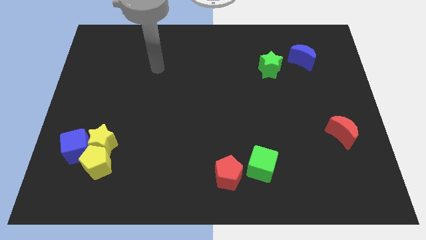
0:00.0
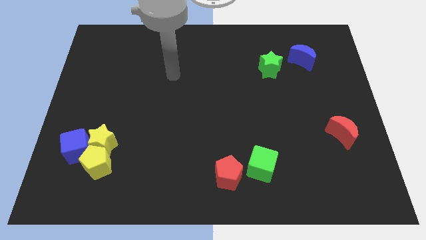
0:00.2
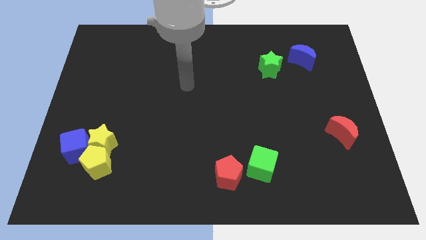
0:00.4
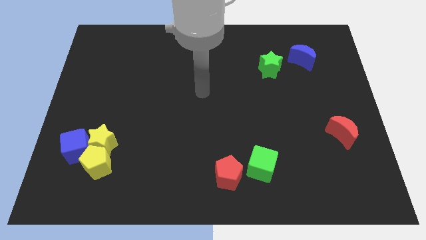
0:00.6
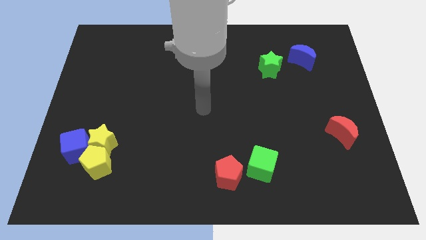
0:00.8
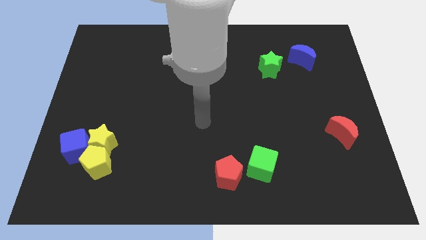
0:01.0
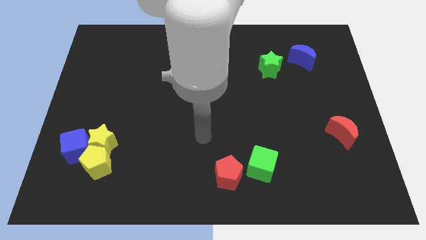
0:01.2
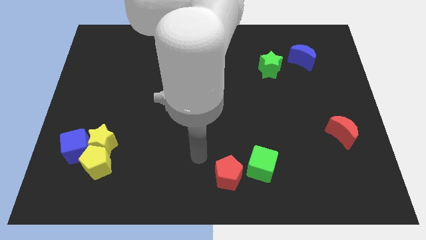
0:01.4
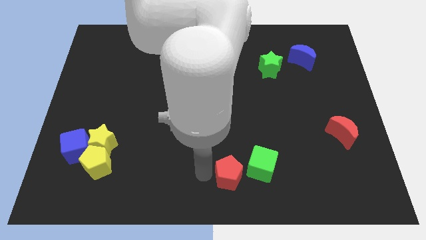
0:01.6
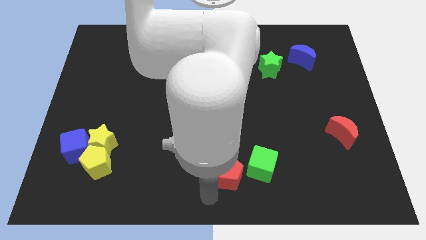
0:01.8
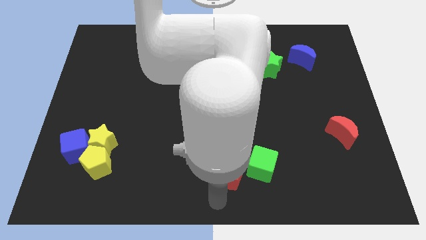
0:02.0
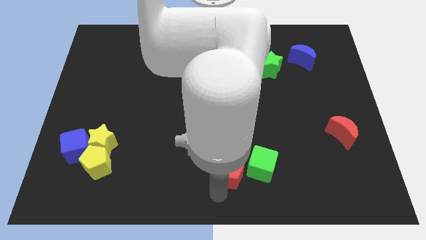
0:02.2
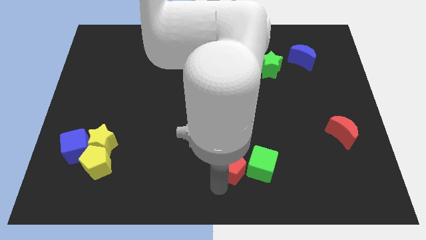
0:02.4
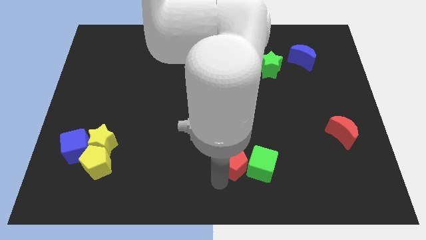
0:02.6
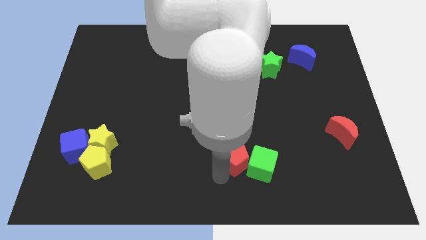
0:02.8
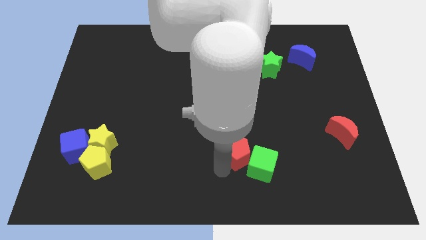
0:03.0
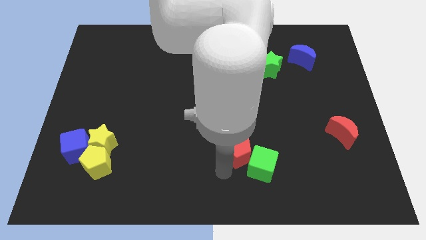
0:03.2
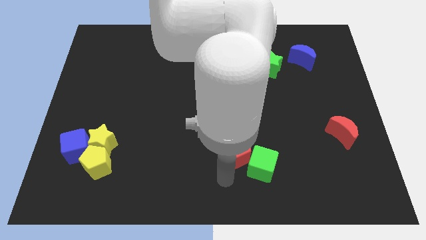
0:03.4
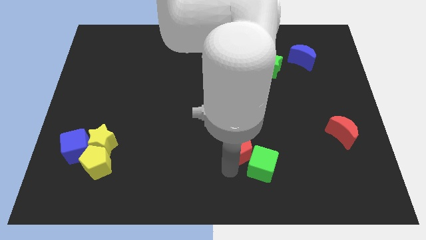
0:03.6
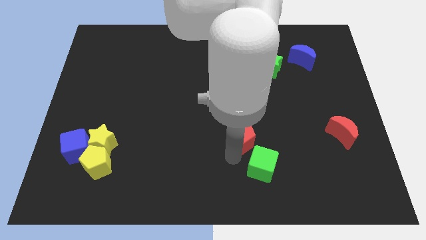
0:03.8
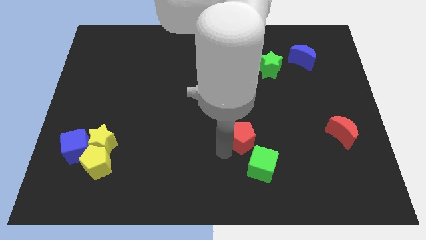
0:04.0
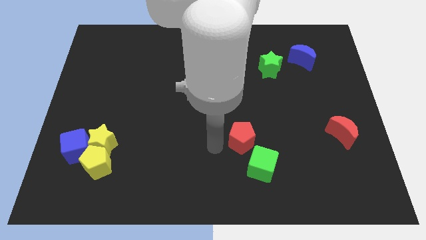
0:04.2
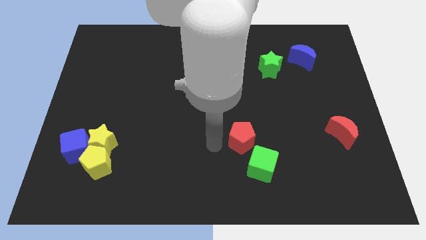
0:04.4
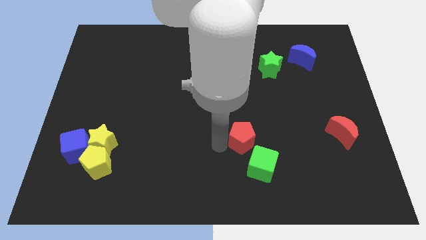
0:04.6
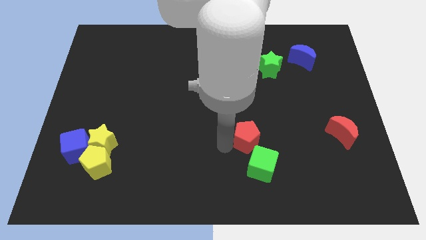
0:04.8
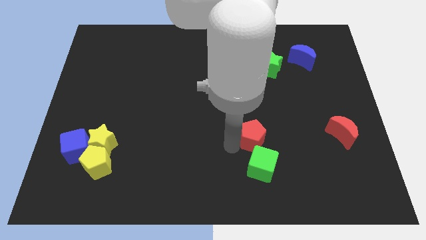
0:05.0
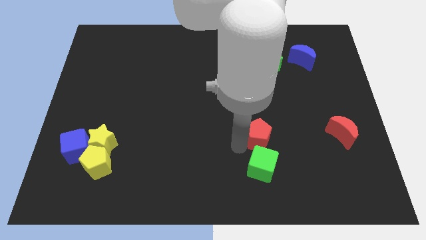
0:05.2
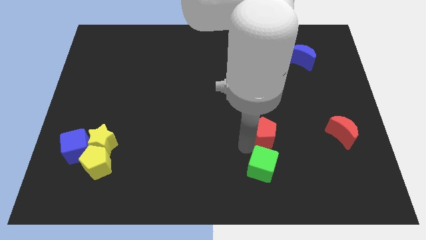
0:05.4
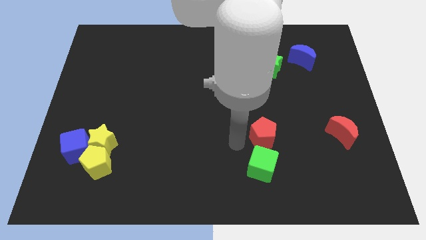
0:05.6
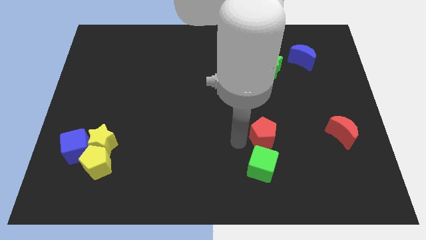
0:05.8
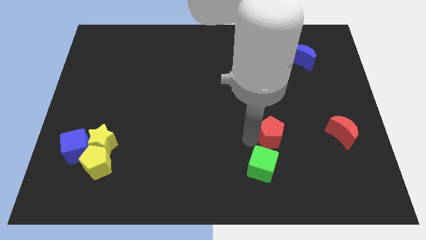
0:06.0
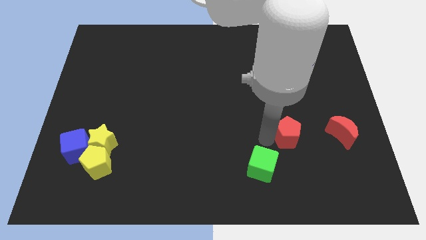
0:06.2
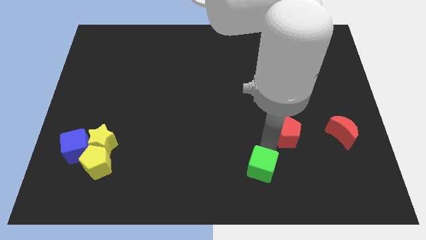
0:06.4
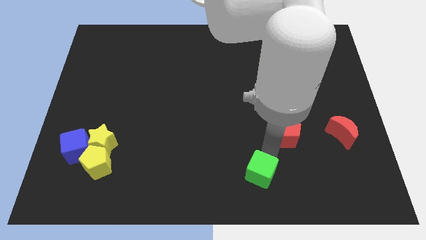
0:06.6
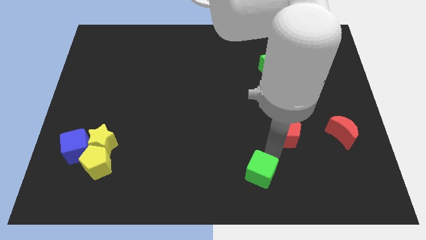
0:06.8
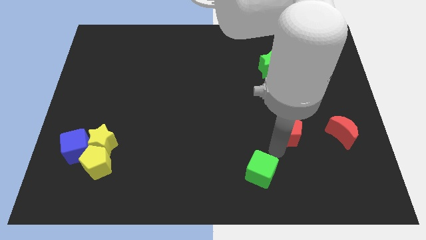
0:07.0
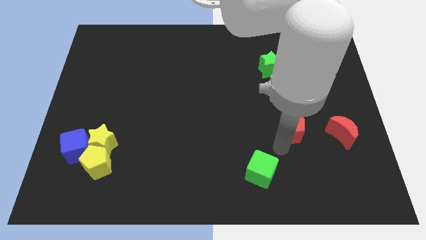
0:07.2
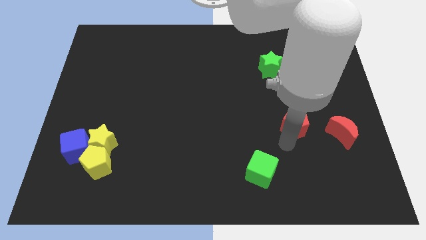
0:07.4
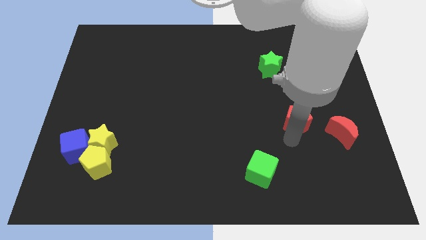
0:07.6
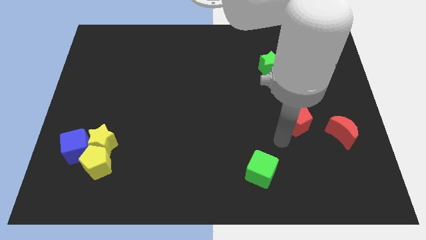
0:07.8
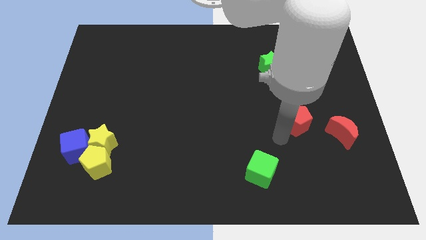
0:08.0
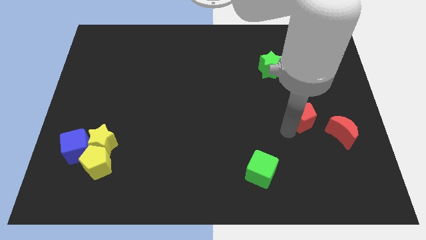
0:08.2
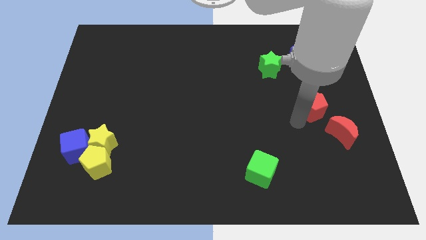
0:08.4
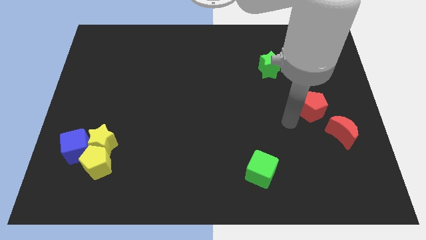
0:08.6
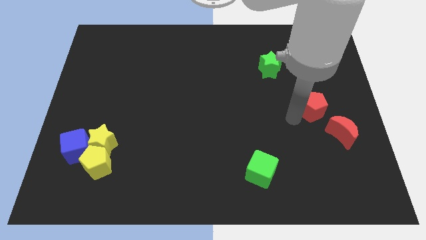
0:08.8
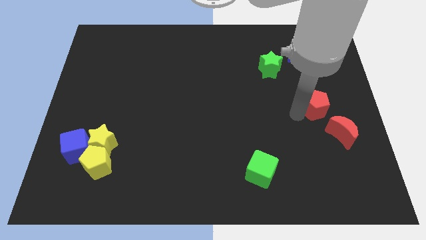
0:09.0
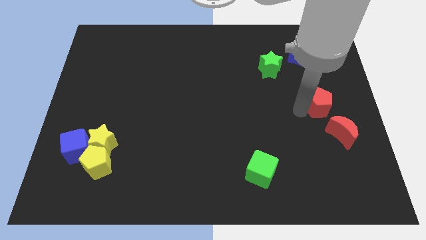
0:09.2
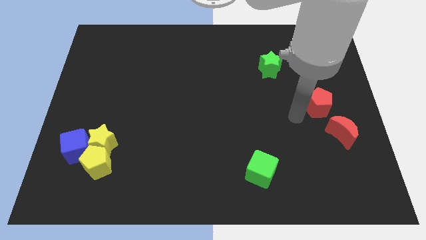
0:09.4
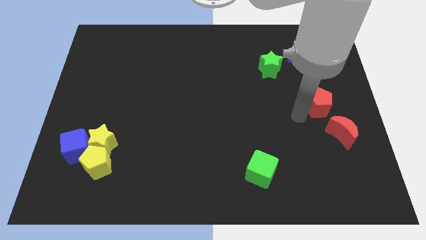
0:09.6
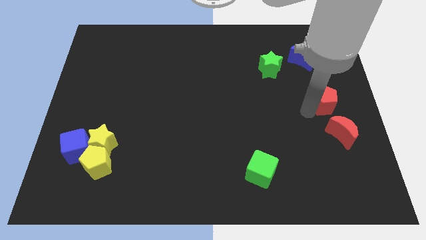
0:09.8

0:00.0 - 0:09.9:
slide the red pentagon to the right side of the board

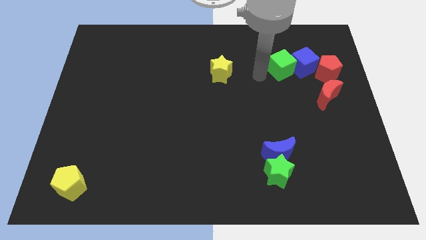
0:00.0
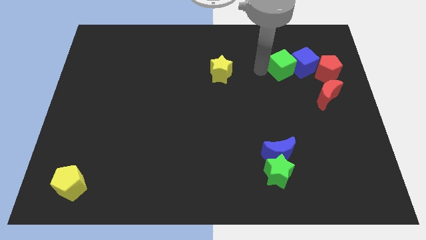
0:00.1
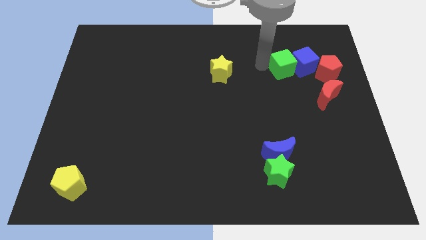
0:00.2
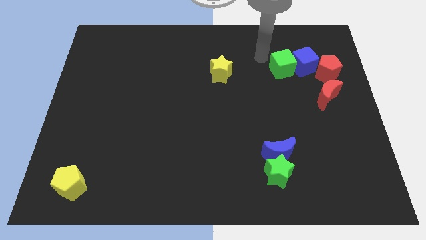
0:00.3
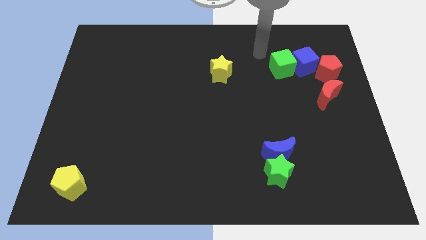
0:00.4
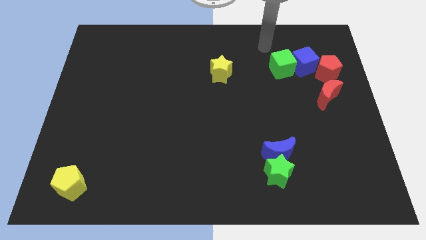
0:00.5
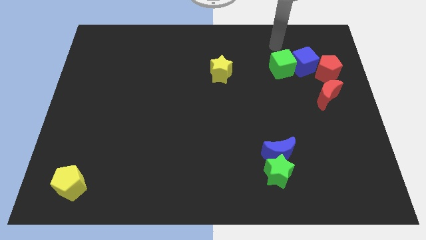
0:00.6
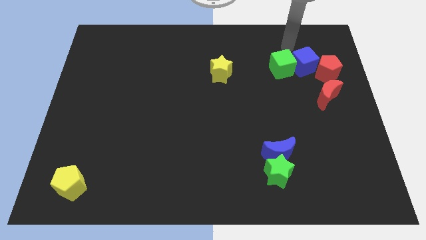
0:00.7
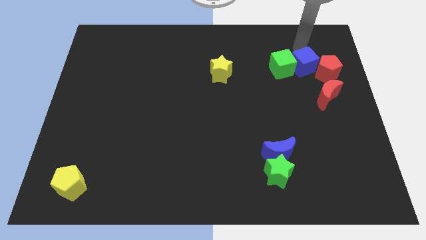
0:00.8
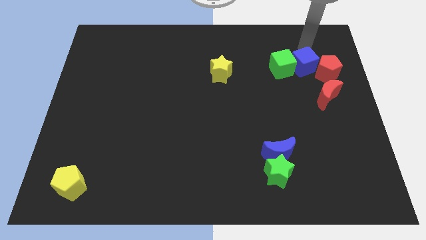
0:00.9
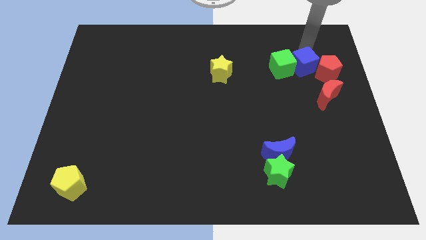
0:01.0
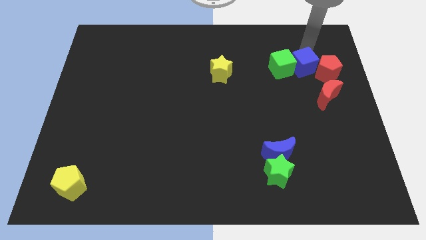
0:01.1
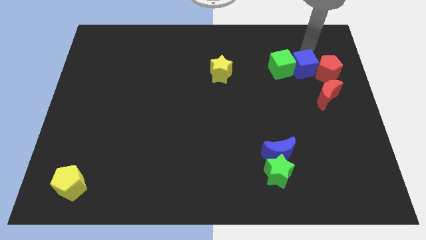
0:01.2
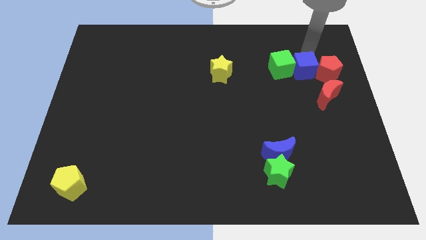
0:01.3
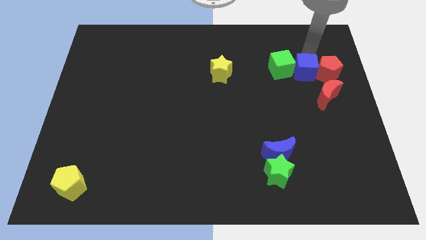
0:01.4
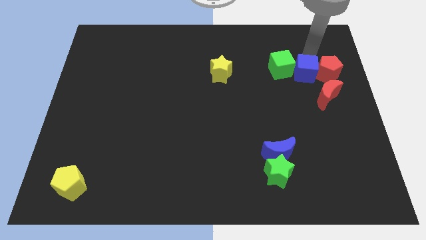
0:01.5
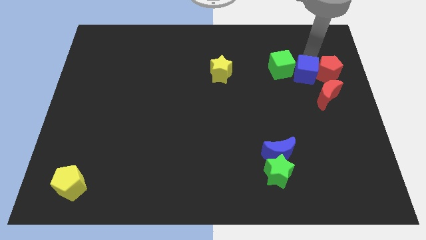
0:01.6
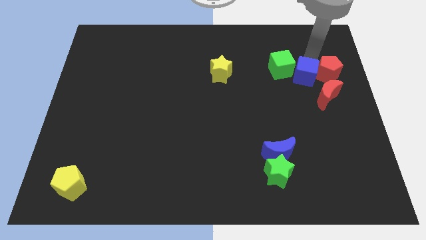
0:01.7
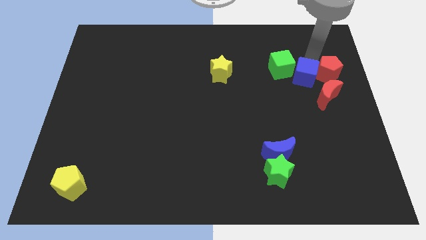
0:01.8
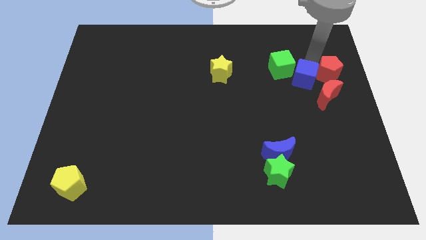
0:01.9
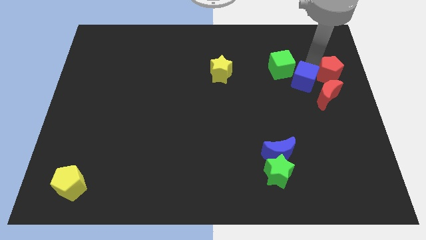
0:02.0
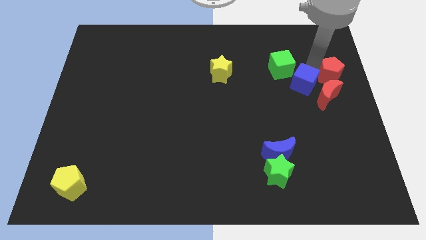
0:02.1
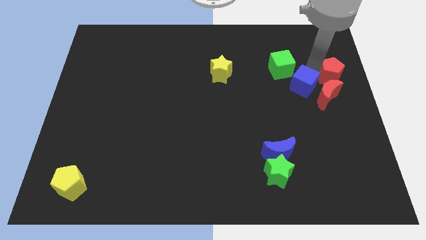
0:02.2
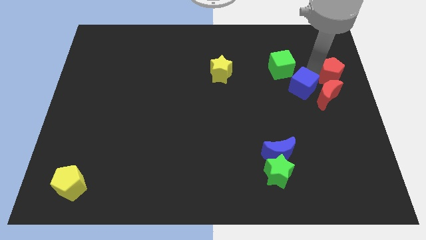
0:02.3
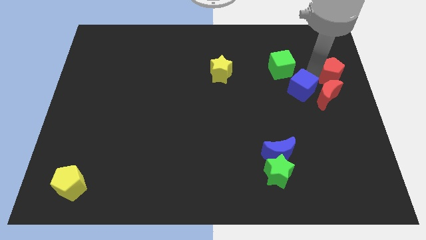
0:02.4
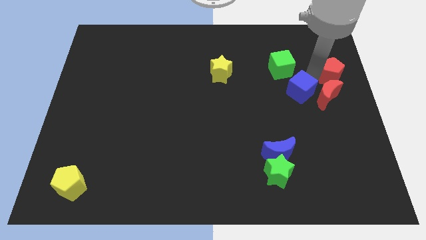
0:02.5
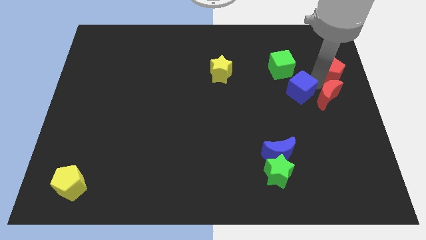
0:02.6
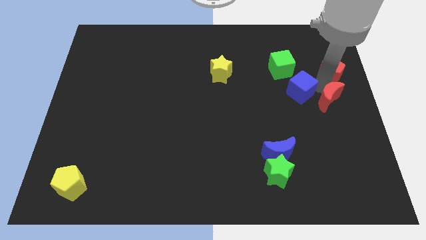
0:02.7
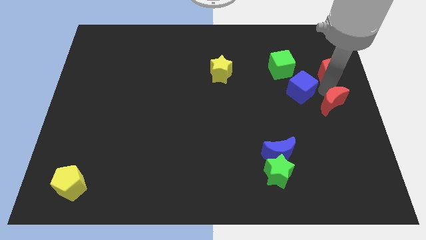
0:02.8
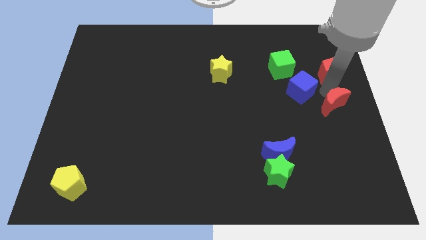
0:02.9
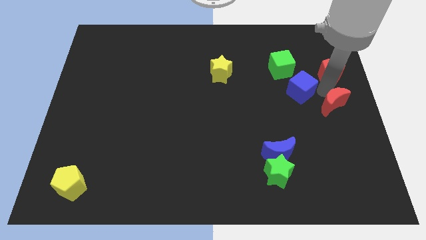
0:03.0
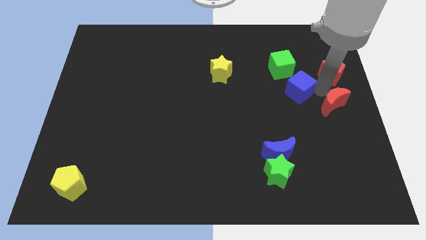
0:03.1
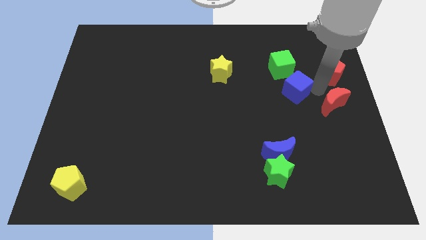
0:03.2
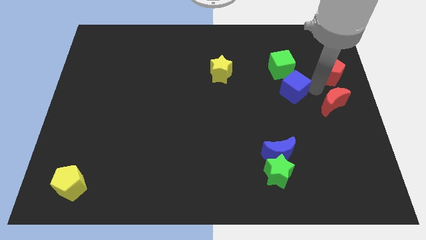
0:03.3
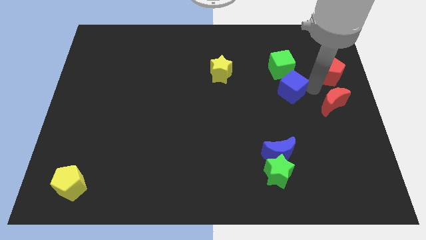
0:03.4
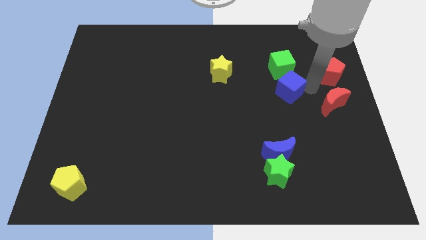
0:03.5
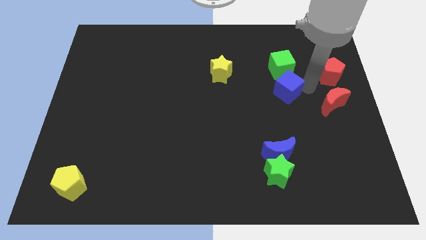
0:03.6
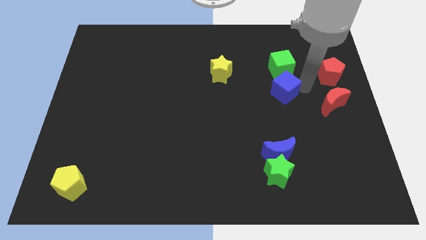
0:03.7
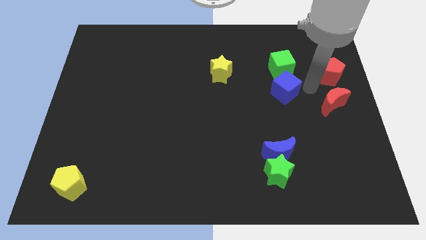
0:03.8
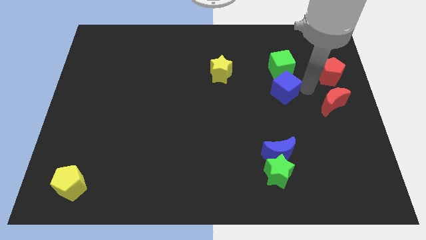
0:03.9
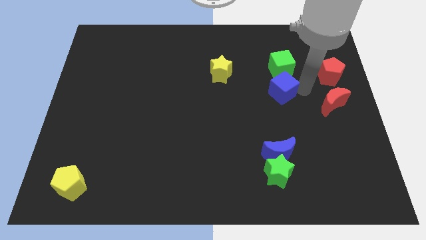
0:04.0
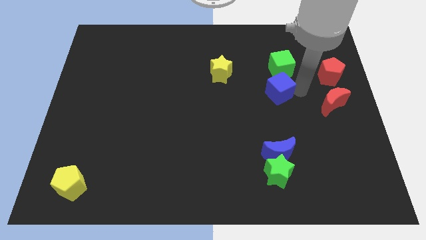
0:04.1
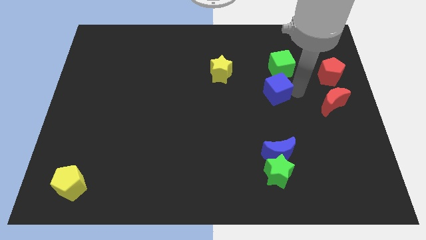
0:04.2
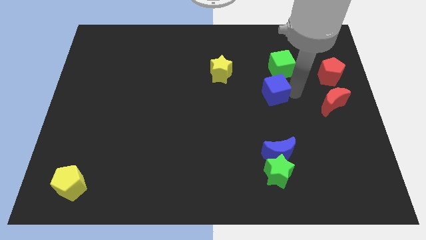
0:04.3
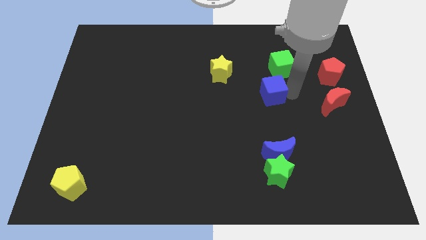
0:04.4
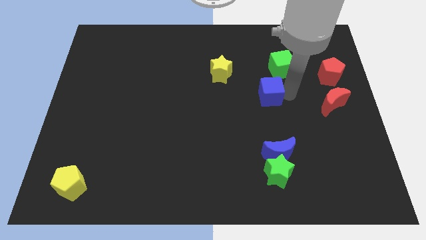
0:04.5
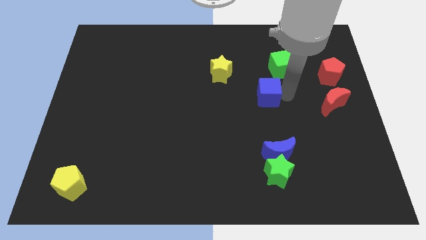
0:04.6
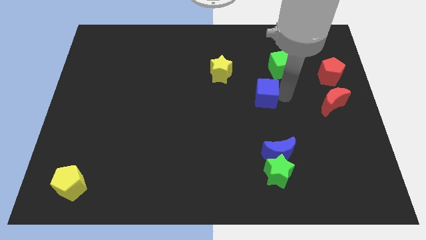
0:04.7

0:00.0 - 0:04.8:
push the blue cube to the center
